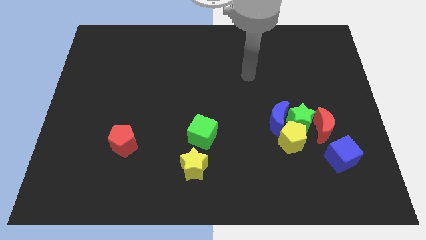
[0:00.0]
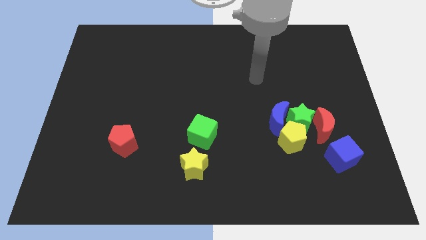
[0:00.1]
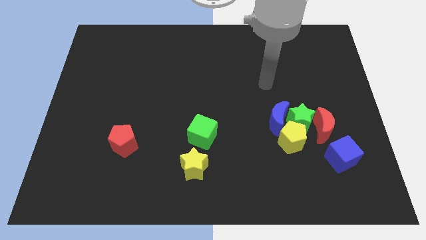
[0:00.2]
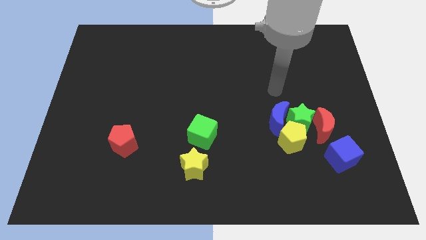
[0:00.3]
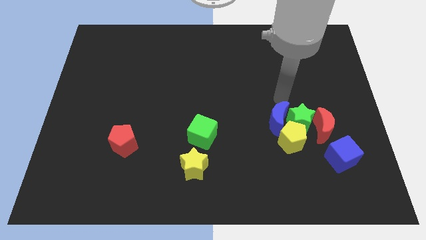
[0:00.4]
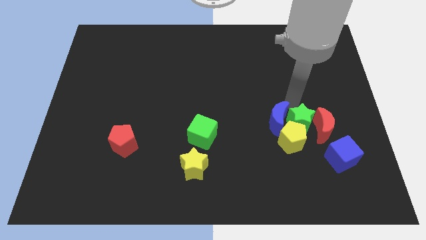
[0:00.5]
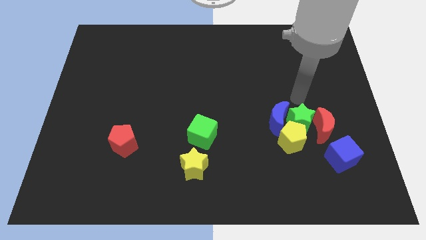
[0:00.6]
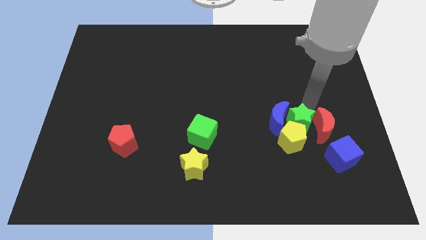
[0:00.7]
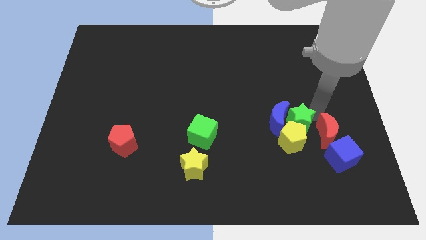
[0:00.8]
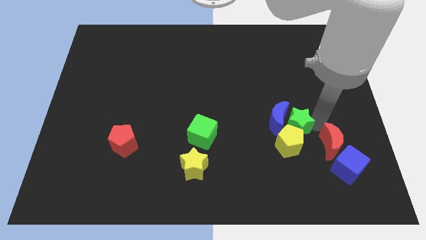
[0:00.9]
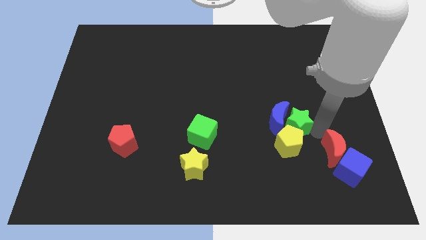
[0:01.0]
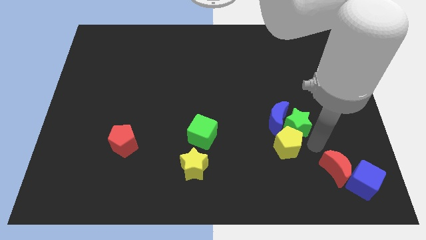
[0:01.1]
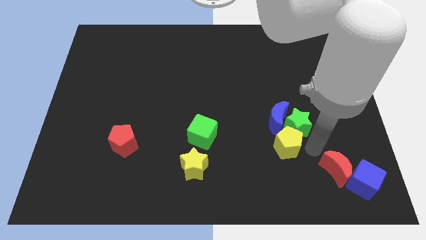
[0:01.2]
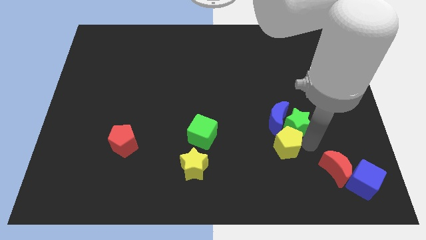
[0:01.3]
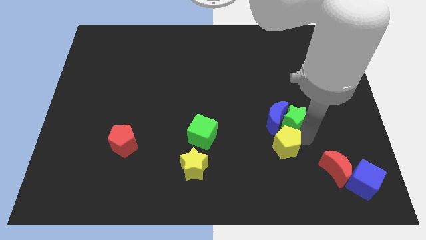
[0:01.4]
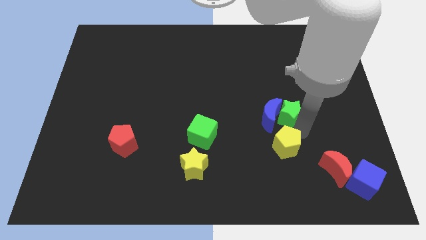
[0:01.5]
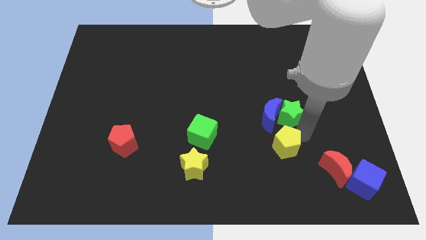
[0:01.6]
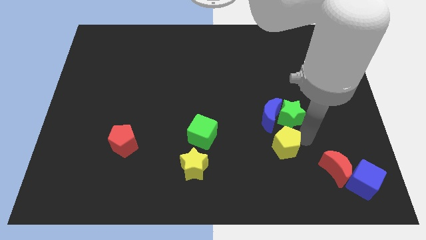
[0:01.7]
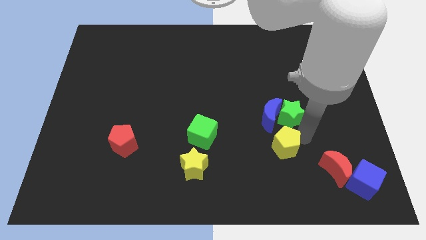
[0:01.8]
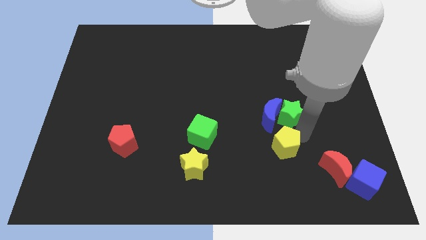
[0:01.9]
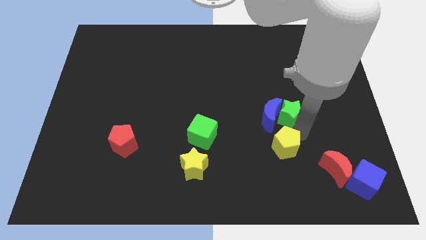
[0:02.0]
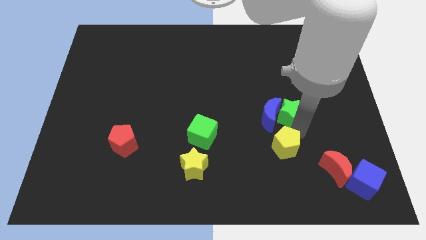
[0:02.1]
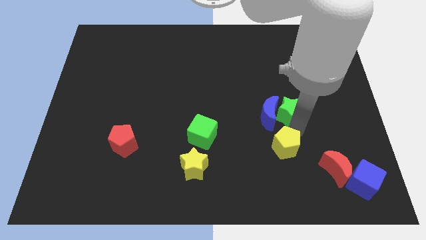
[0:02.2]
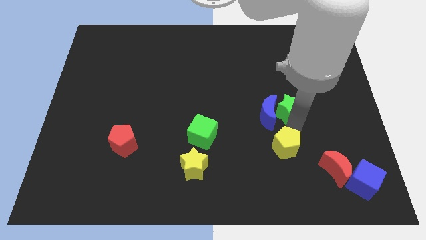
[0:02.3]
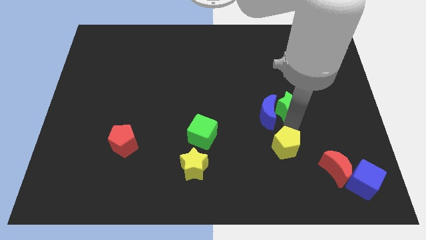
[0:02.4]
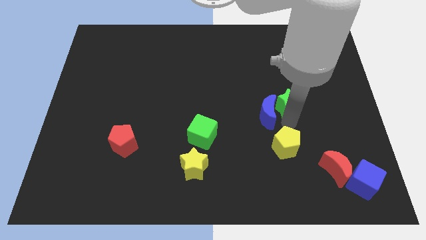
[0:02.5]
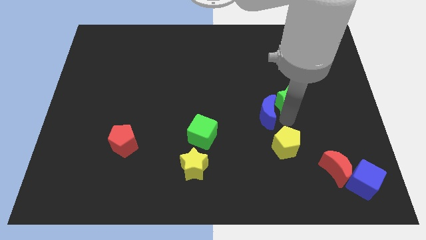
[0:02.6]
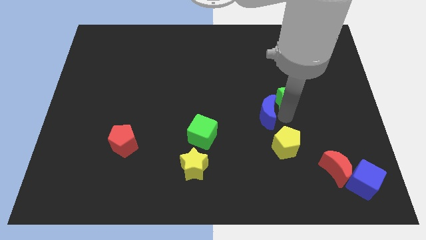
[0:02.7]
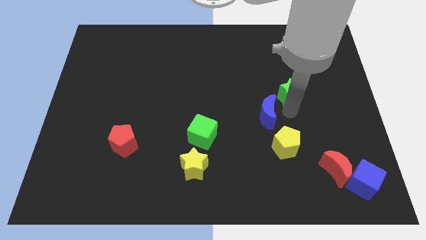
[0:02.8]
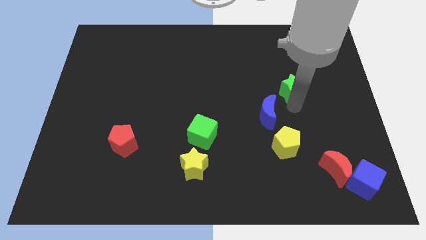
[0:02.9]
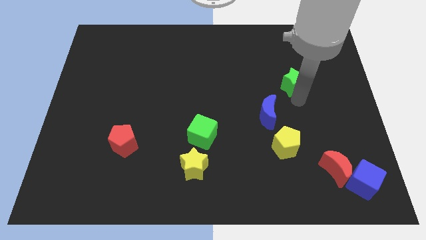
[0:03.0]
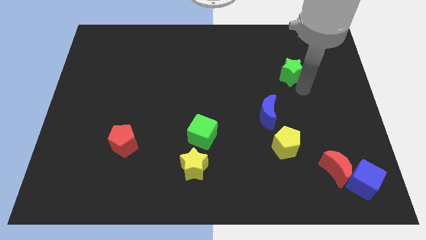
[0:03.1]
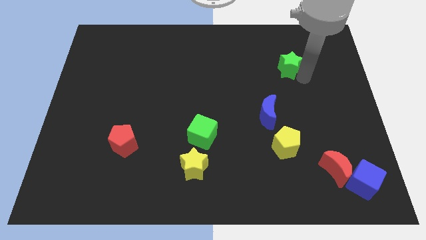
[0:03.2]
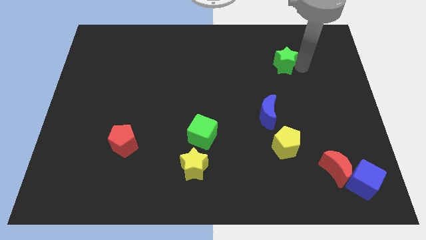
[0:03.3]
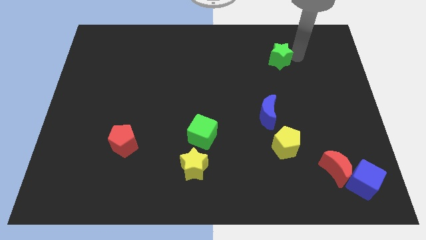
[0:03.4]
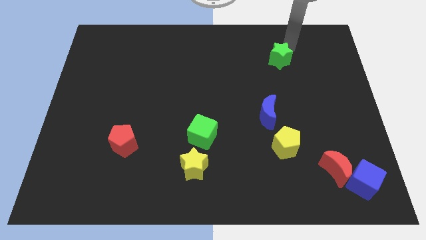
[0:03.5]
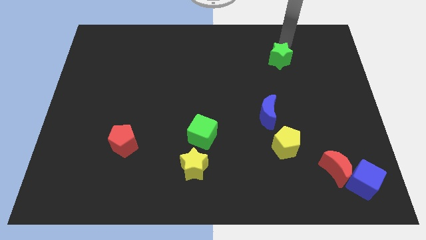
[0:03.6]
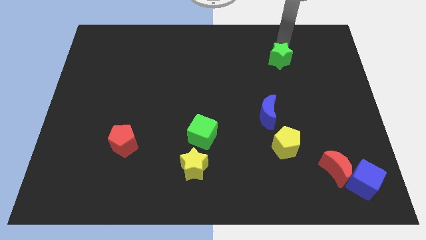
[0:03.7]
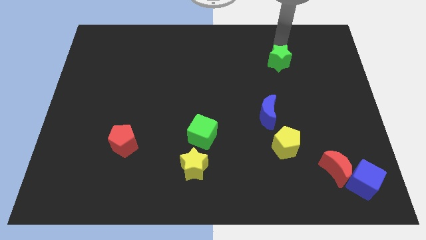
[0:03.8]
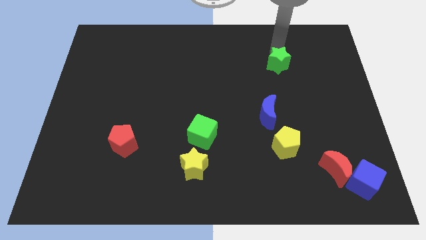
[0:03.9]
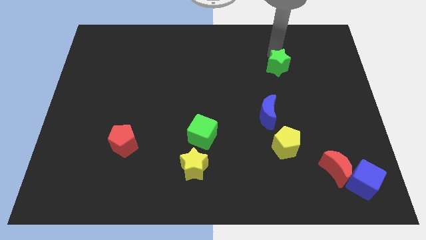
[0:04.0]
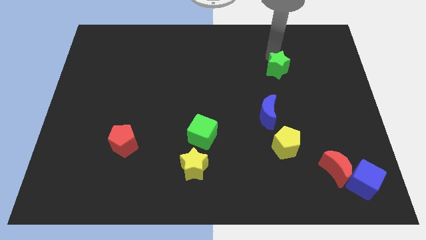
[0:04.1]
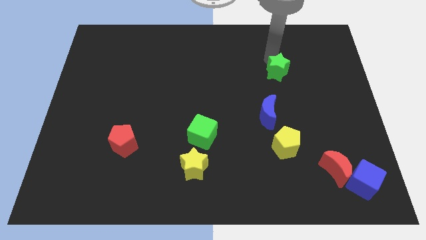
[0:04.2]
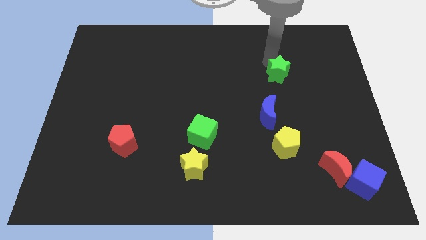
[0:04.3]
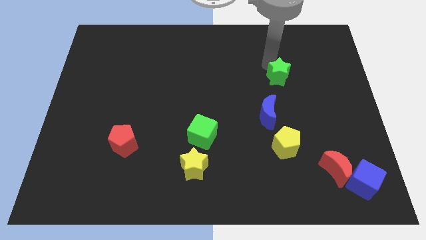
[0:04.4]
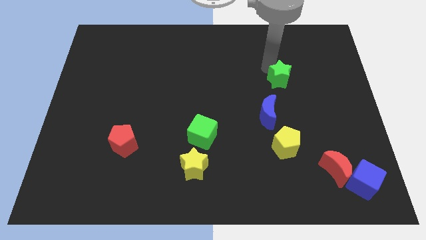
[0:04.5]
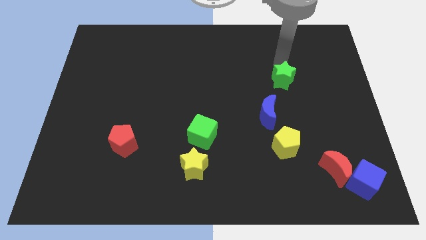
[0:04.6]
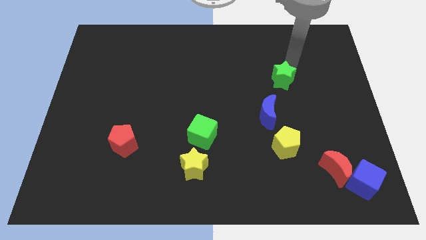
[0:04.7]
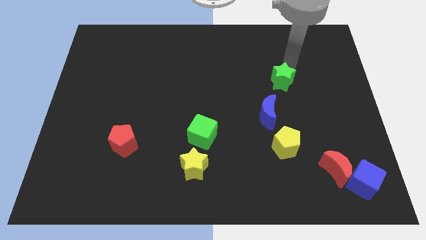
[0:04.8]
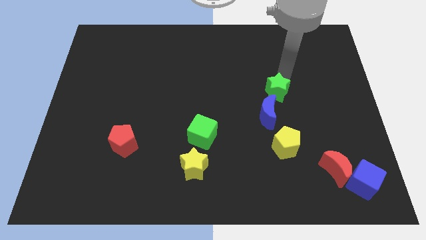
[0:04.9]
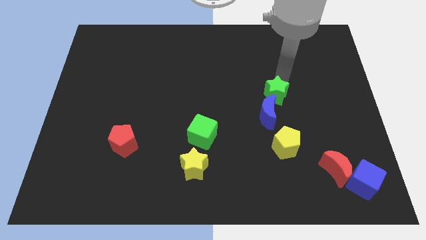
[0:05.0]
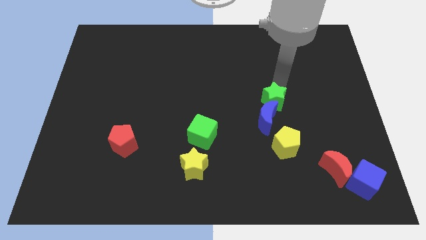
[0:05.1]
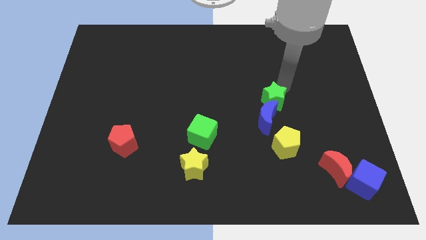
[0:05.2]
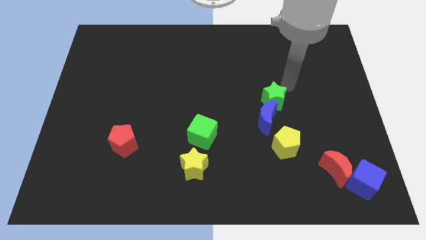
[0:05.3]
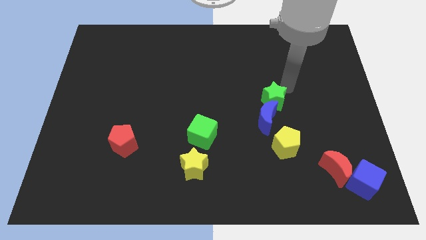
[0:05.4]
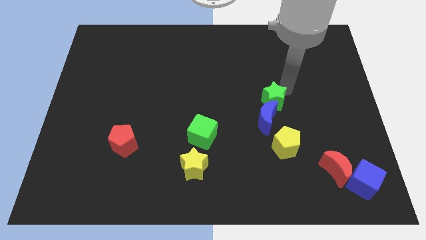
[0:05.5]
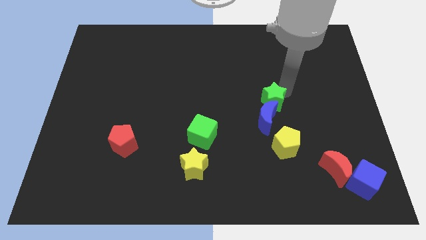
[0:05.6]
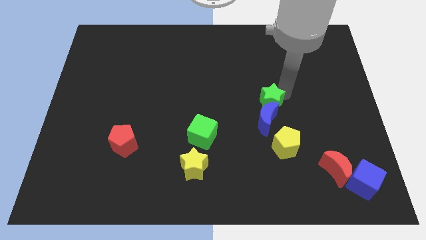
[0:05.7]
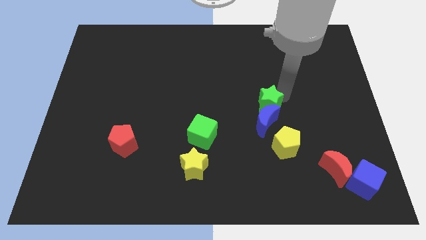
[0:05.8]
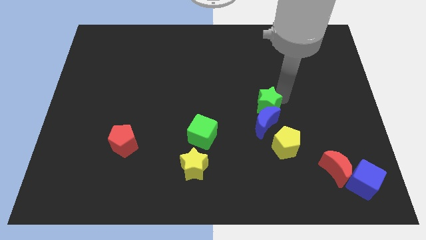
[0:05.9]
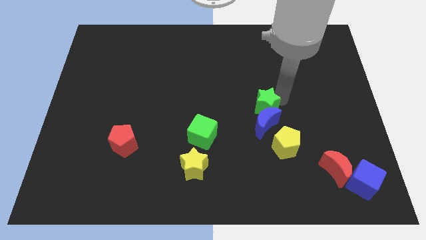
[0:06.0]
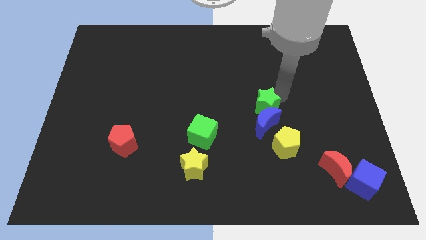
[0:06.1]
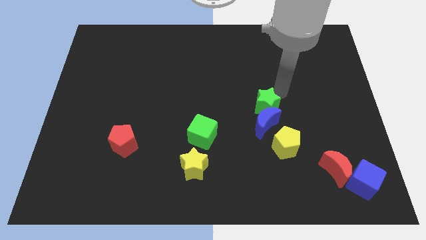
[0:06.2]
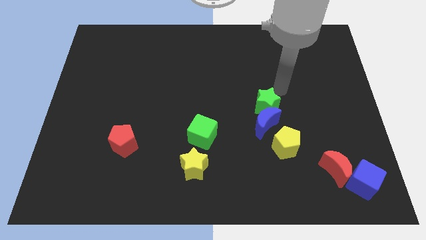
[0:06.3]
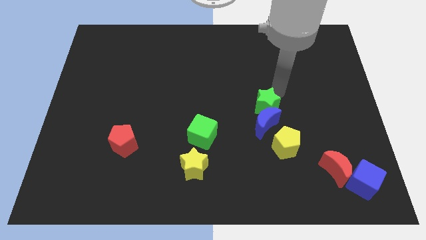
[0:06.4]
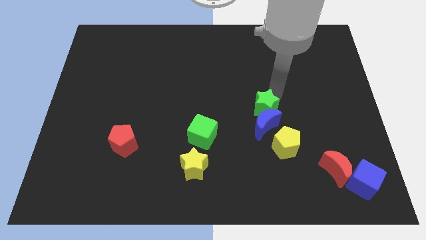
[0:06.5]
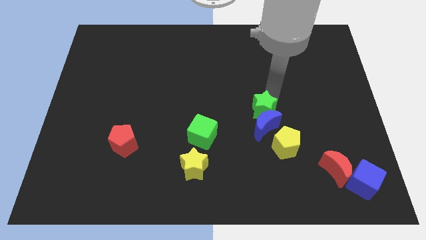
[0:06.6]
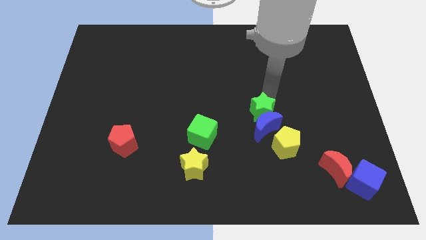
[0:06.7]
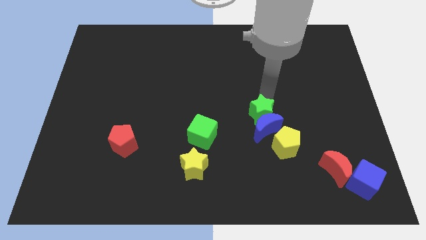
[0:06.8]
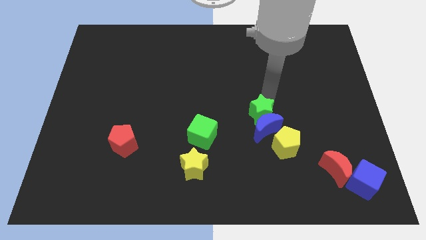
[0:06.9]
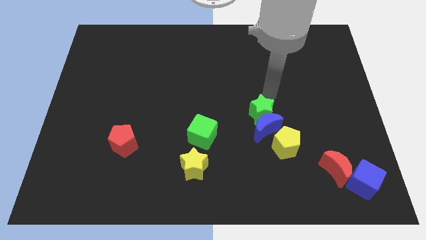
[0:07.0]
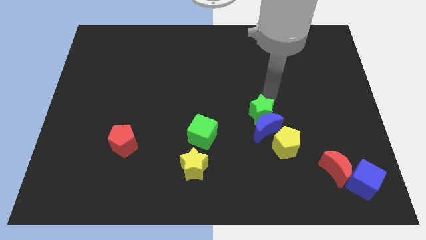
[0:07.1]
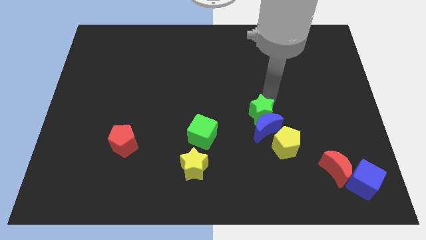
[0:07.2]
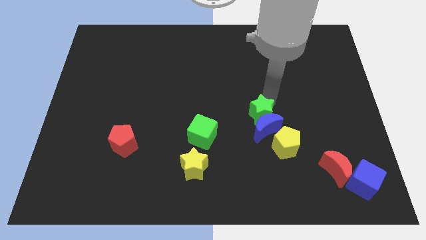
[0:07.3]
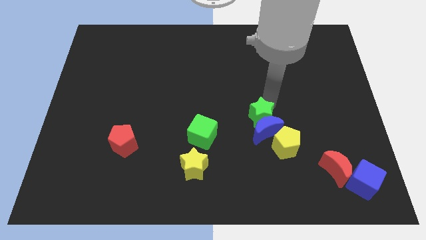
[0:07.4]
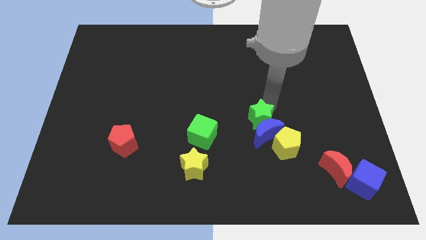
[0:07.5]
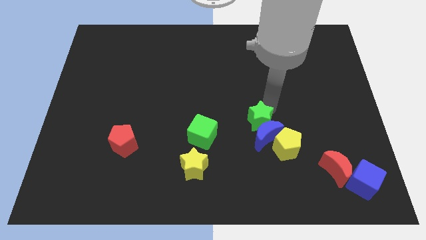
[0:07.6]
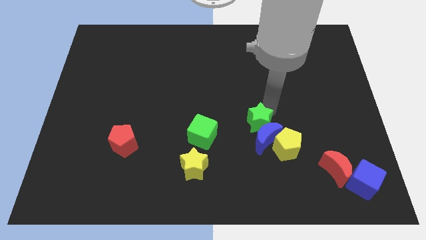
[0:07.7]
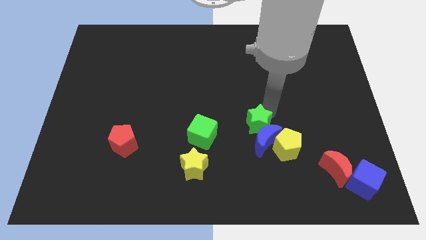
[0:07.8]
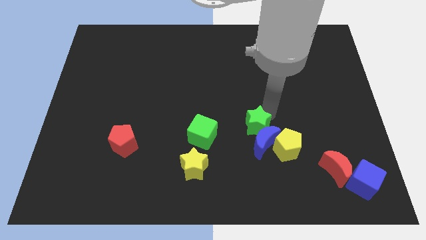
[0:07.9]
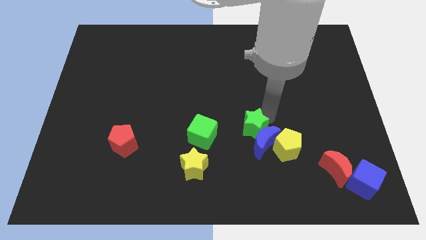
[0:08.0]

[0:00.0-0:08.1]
slightly move the green star downwards and left diagonally
